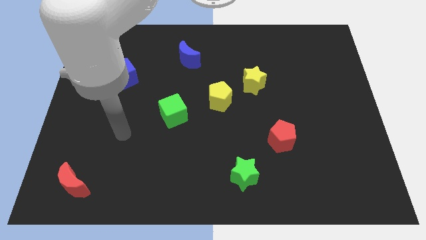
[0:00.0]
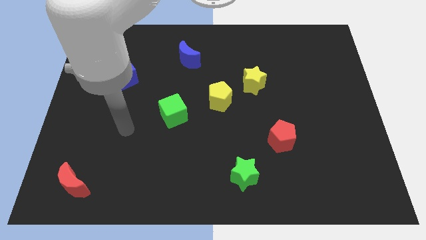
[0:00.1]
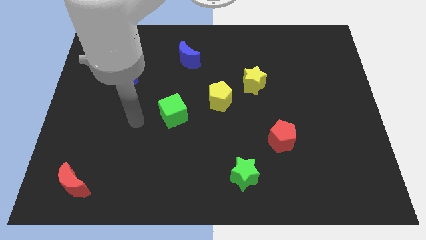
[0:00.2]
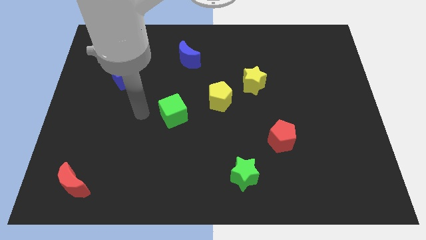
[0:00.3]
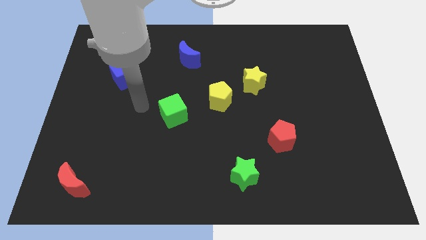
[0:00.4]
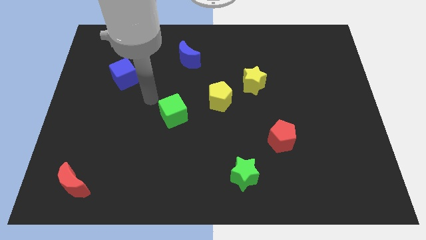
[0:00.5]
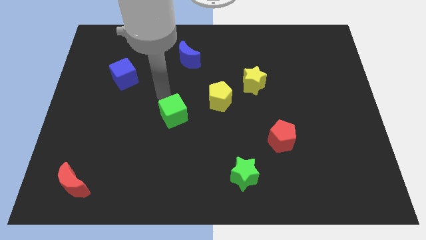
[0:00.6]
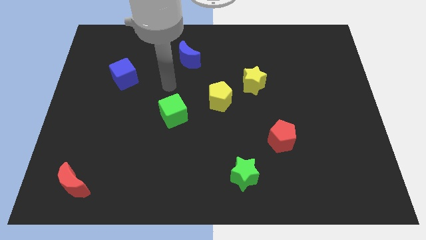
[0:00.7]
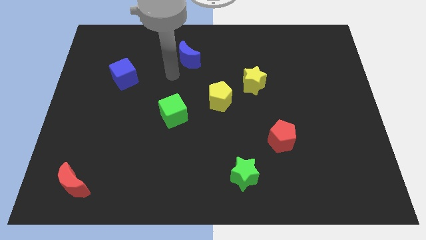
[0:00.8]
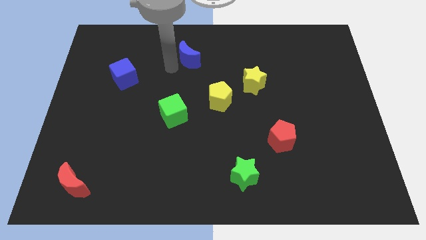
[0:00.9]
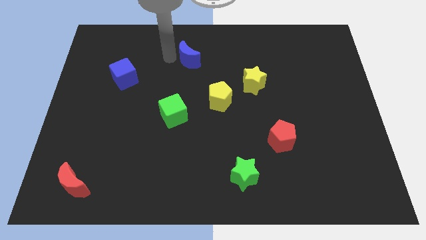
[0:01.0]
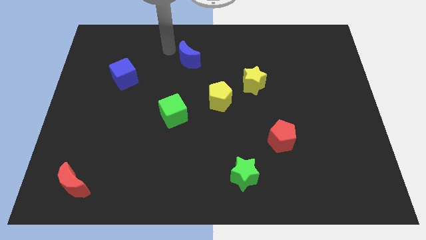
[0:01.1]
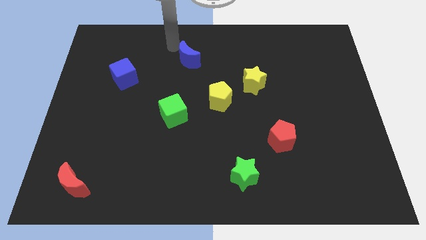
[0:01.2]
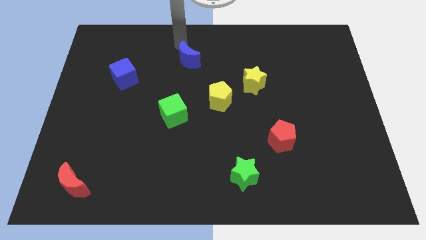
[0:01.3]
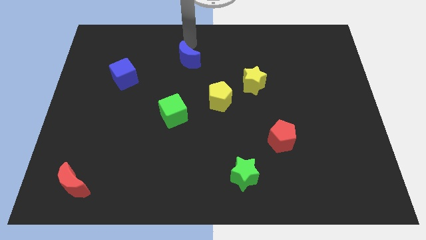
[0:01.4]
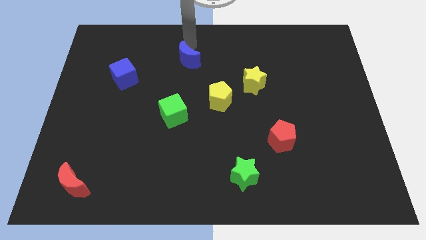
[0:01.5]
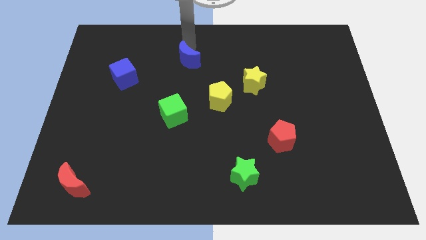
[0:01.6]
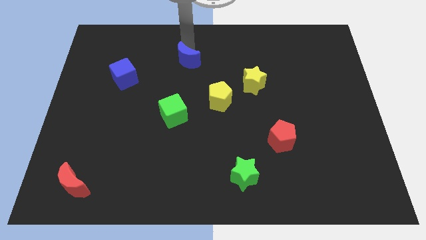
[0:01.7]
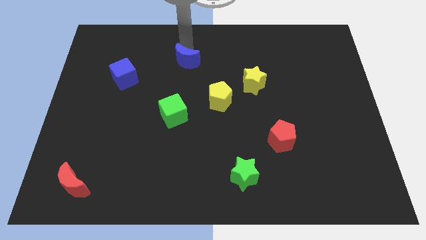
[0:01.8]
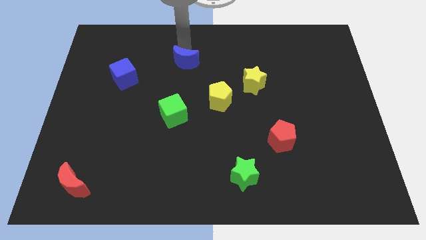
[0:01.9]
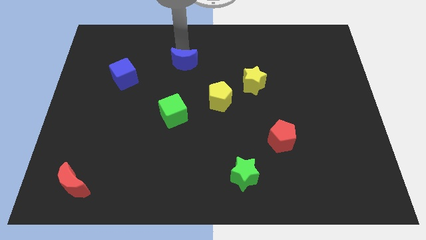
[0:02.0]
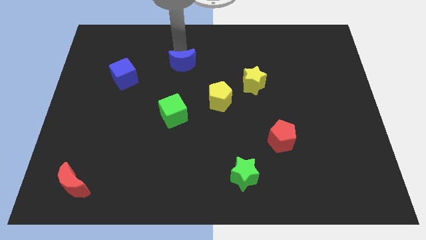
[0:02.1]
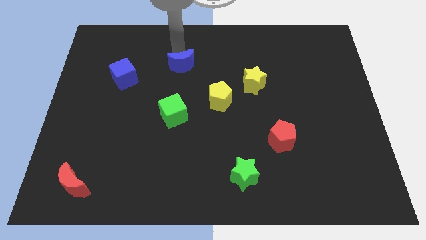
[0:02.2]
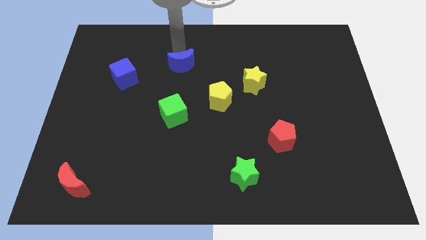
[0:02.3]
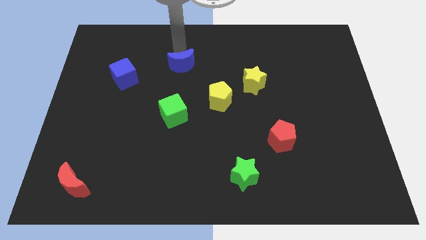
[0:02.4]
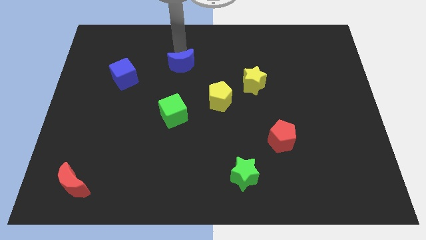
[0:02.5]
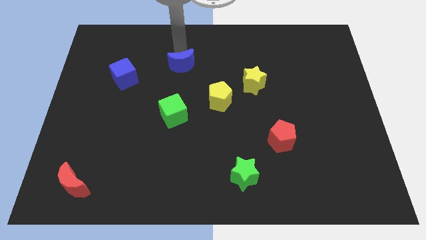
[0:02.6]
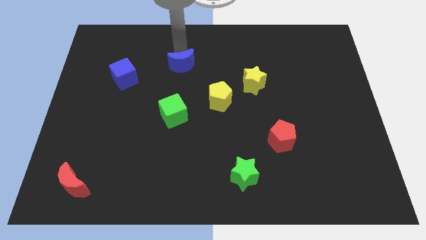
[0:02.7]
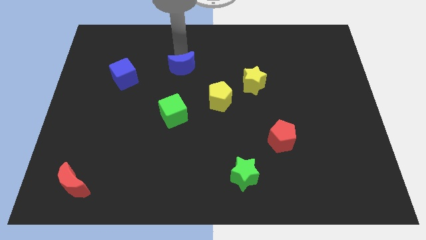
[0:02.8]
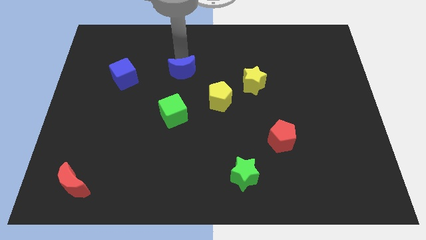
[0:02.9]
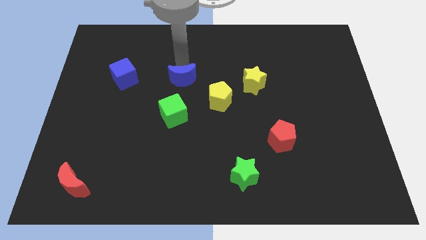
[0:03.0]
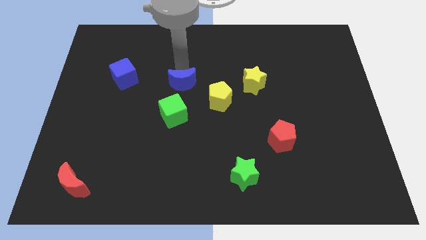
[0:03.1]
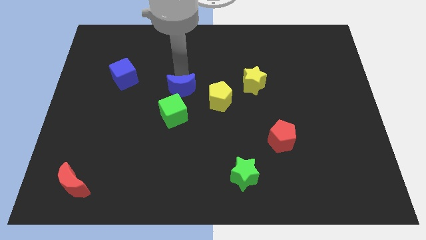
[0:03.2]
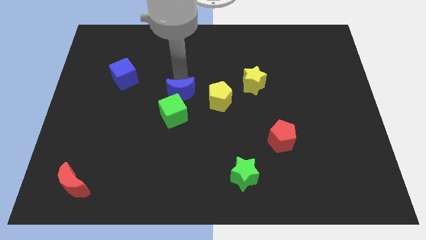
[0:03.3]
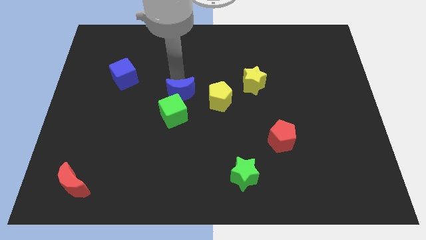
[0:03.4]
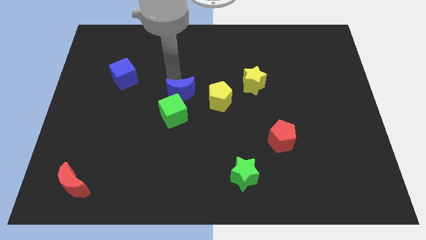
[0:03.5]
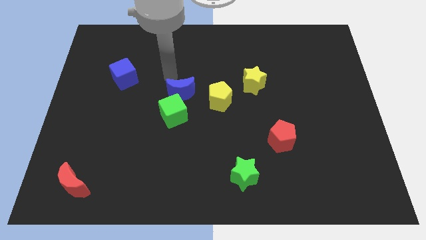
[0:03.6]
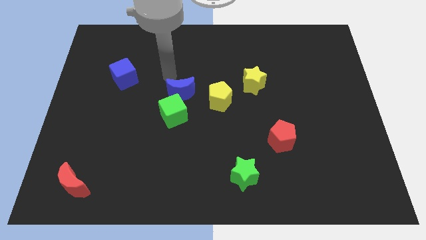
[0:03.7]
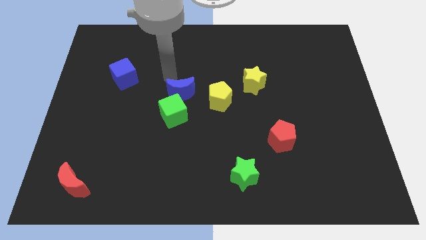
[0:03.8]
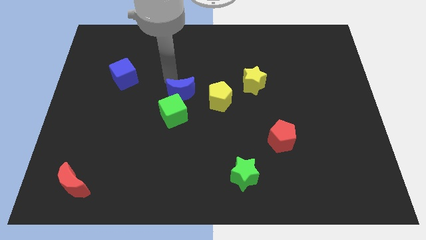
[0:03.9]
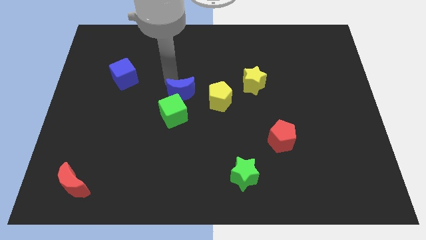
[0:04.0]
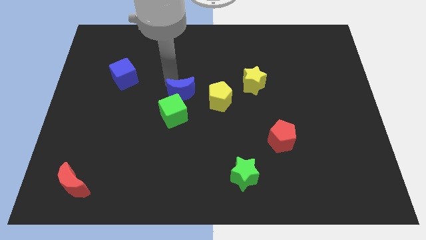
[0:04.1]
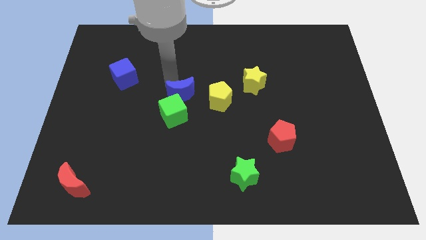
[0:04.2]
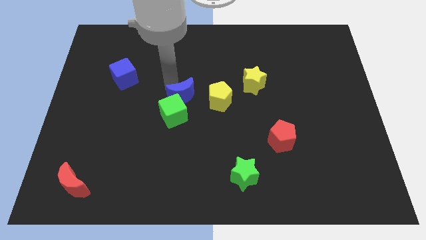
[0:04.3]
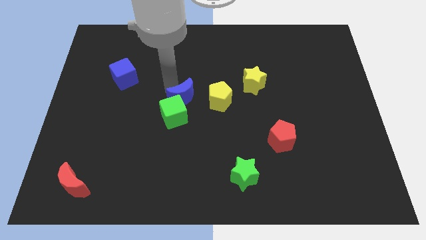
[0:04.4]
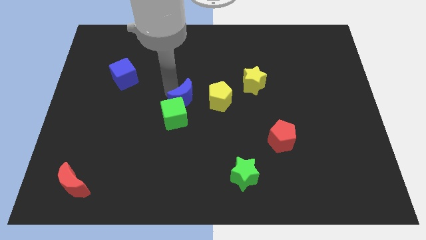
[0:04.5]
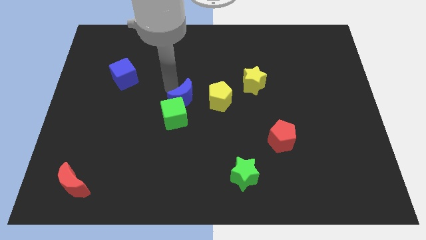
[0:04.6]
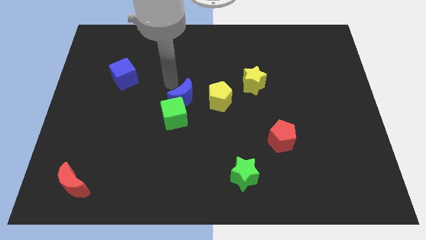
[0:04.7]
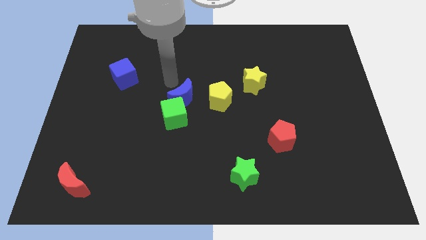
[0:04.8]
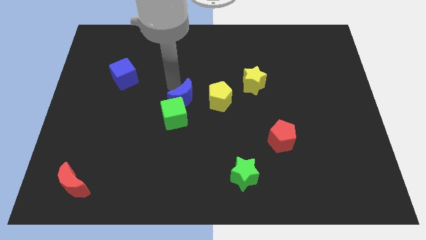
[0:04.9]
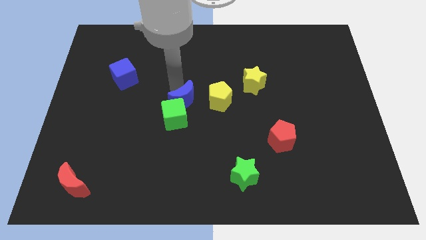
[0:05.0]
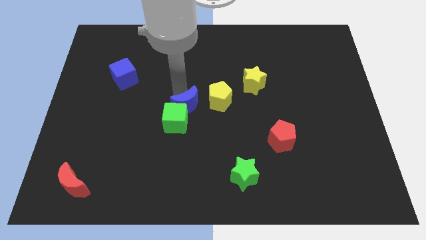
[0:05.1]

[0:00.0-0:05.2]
put the blue moon to the bottom left of the yellow pentagon

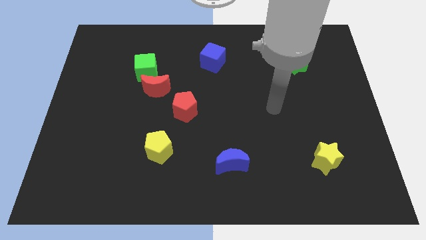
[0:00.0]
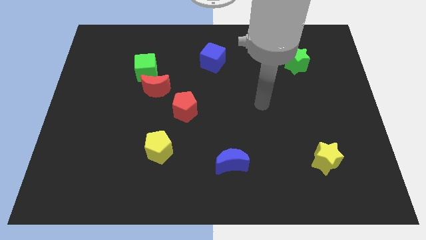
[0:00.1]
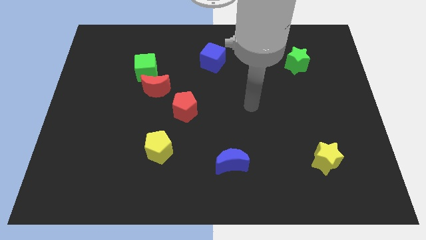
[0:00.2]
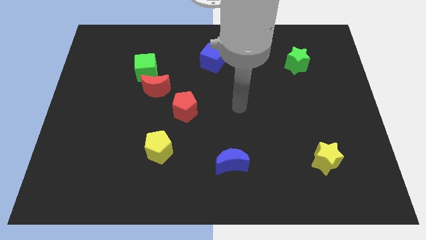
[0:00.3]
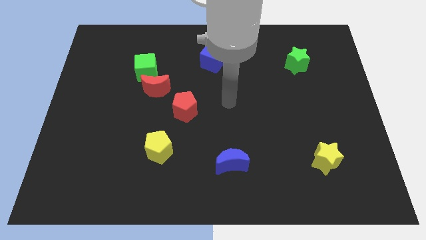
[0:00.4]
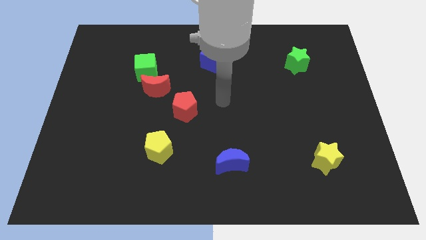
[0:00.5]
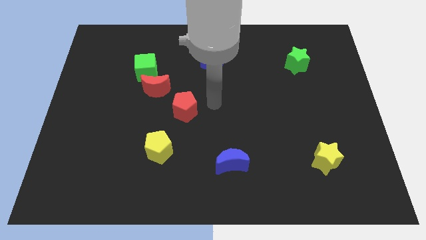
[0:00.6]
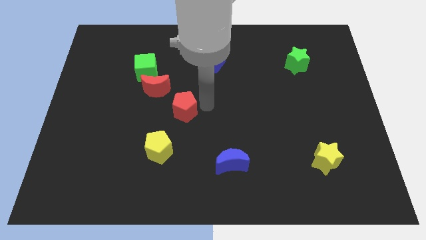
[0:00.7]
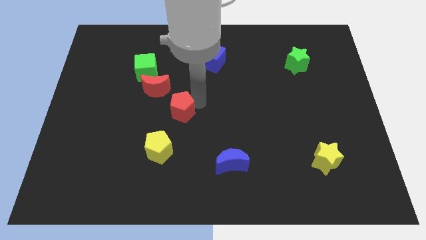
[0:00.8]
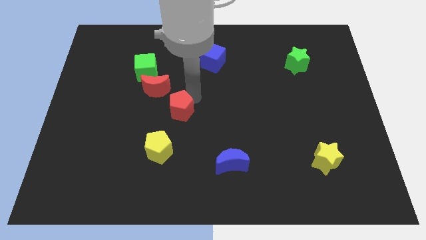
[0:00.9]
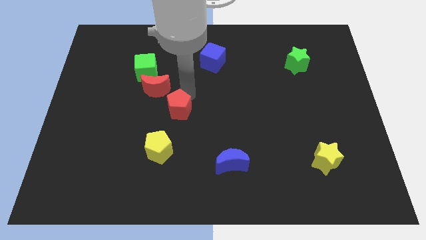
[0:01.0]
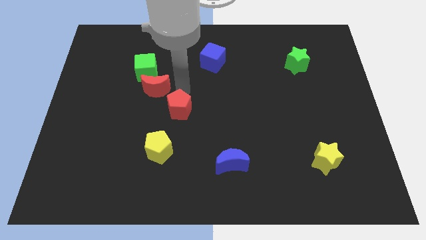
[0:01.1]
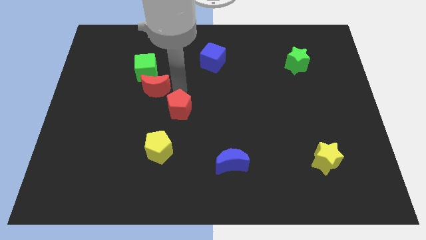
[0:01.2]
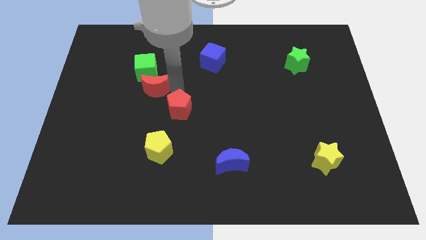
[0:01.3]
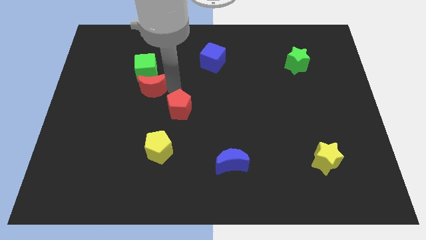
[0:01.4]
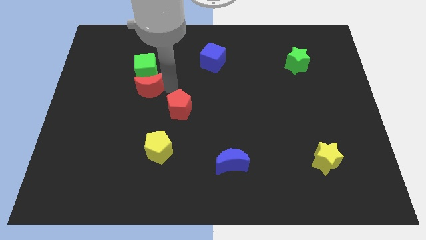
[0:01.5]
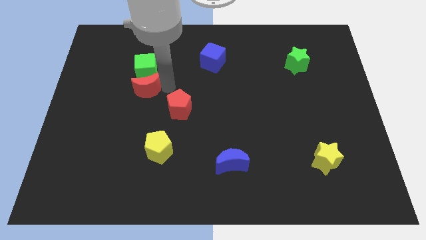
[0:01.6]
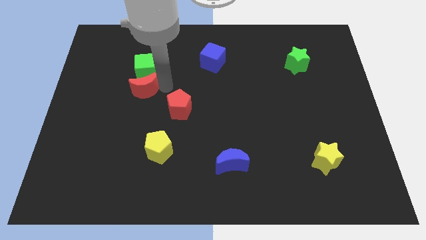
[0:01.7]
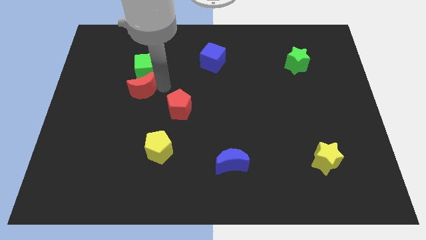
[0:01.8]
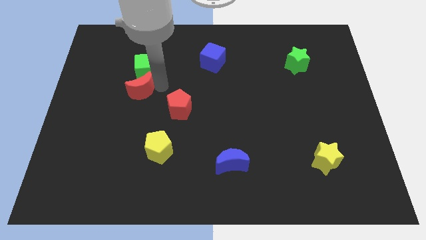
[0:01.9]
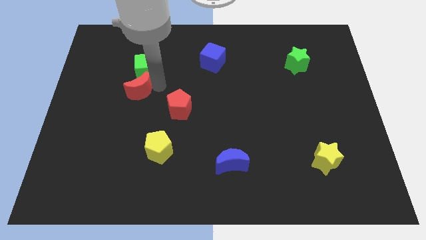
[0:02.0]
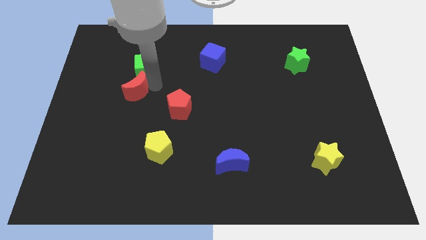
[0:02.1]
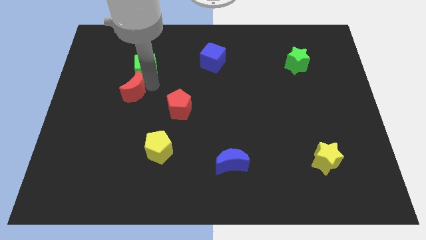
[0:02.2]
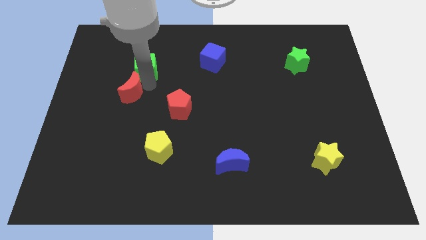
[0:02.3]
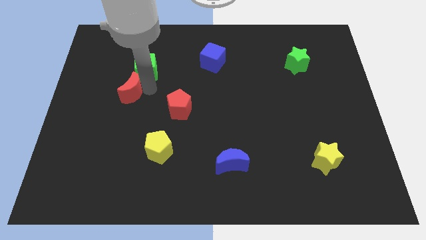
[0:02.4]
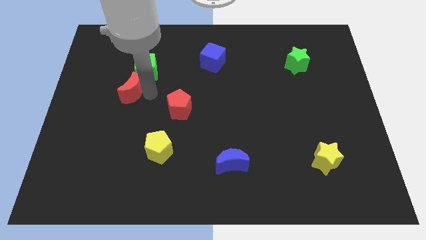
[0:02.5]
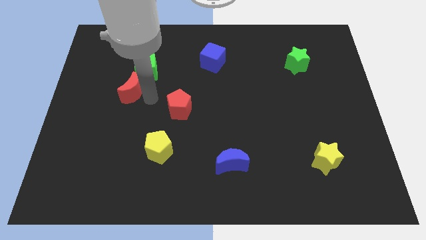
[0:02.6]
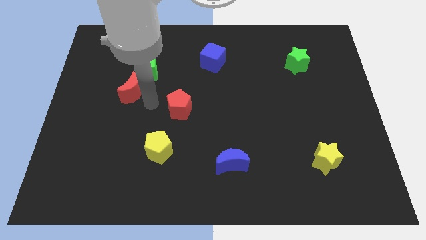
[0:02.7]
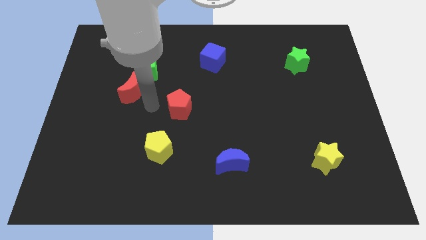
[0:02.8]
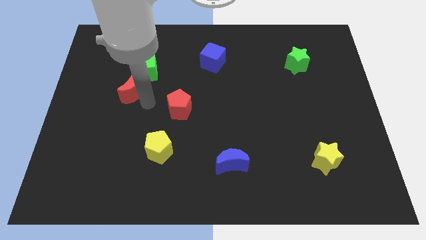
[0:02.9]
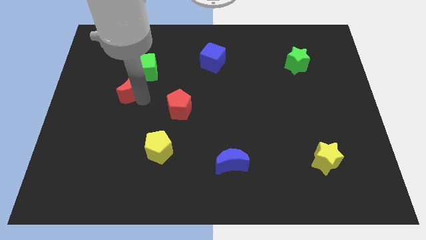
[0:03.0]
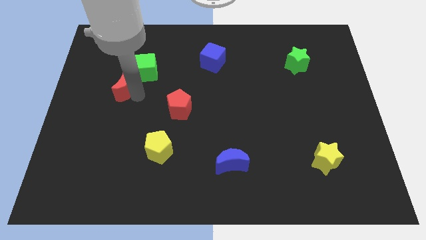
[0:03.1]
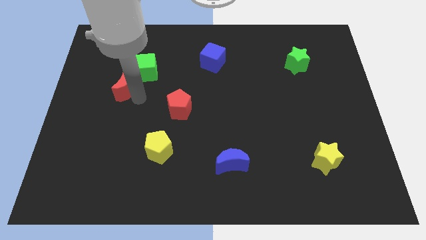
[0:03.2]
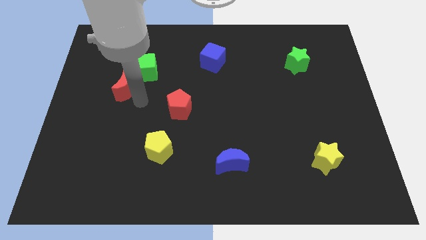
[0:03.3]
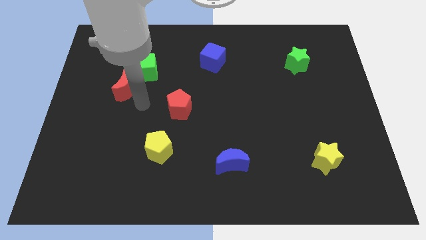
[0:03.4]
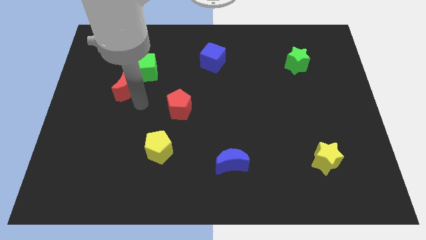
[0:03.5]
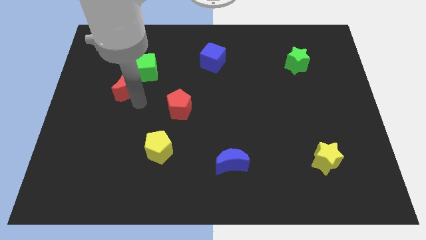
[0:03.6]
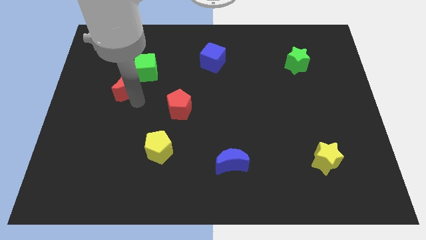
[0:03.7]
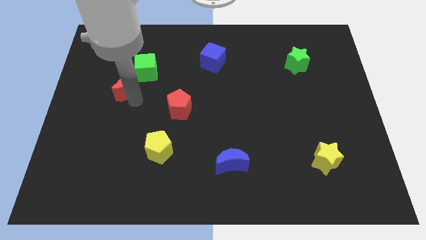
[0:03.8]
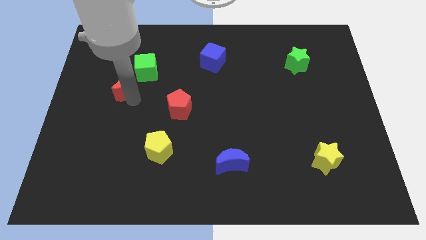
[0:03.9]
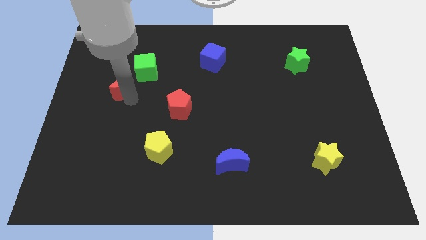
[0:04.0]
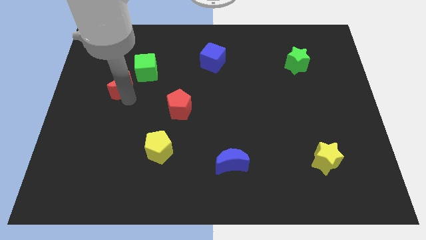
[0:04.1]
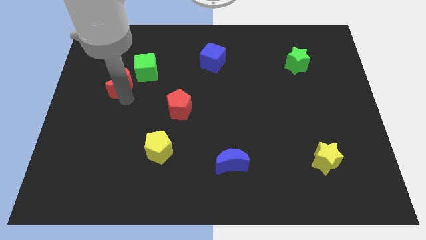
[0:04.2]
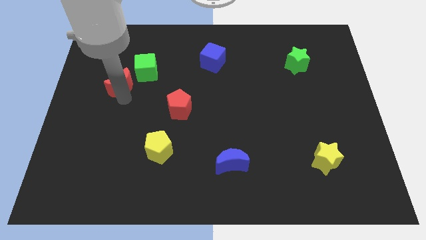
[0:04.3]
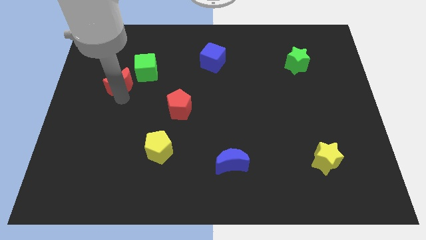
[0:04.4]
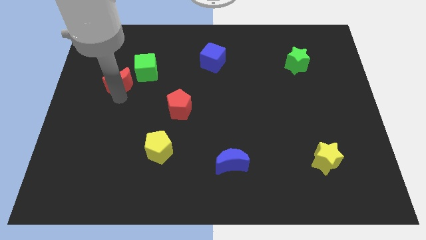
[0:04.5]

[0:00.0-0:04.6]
push the red moon to the left side of the green cube
